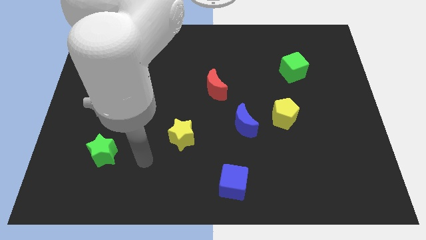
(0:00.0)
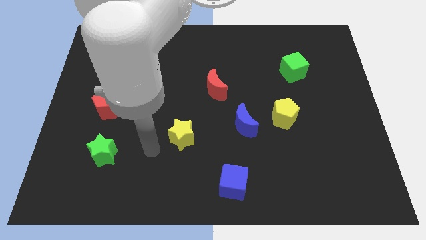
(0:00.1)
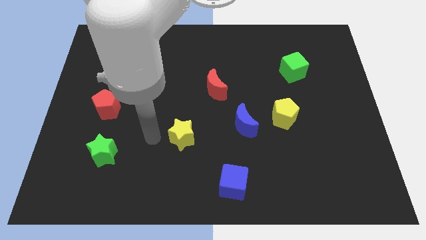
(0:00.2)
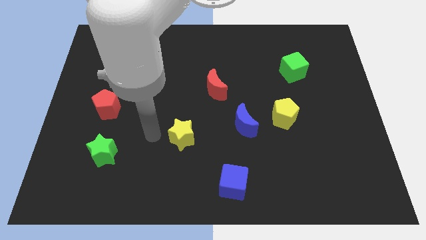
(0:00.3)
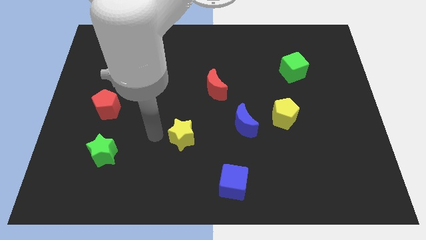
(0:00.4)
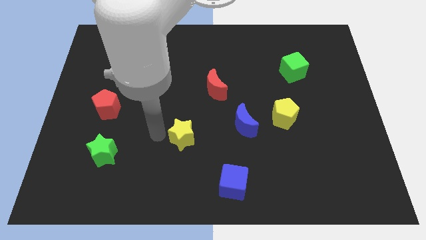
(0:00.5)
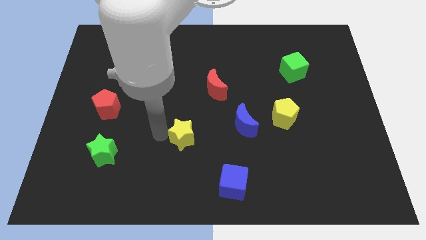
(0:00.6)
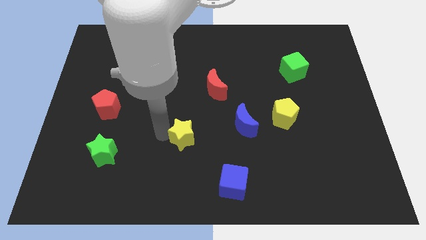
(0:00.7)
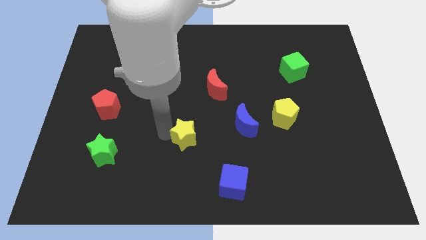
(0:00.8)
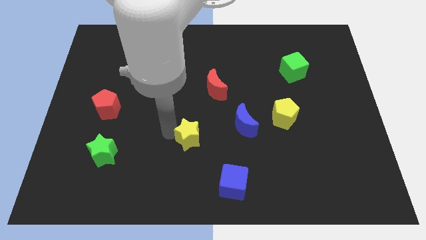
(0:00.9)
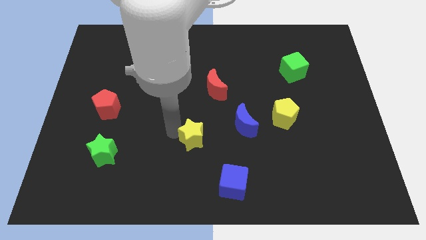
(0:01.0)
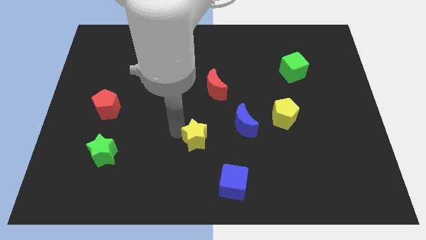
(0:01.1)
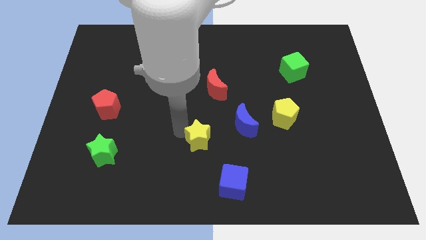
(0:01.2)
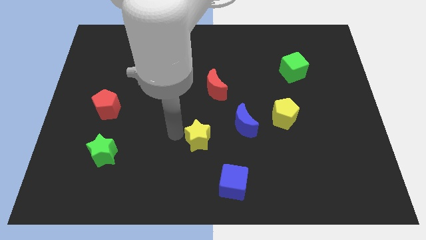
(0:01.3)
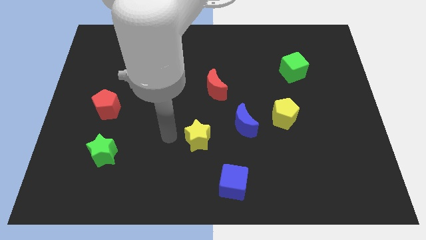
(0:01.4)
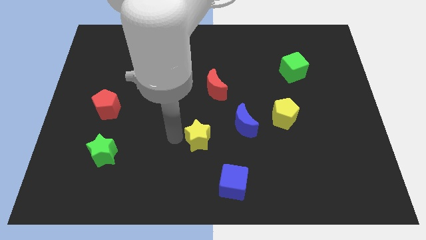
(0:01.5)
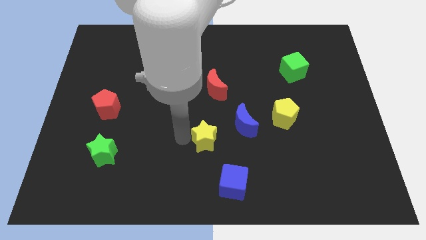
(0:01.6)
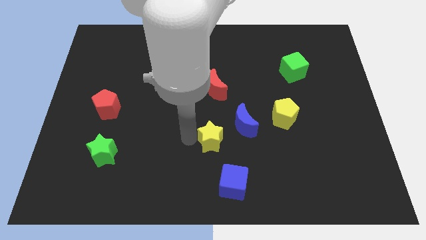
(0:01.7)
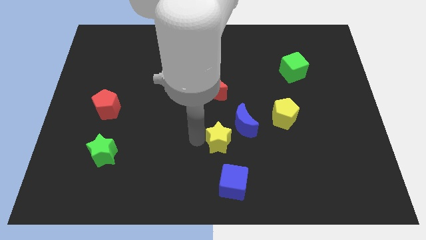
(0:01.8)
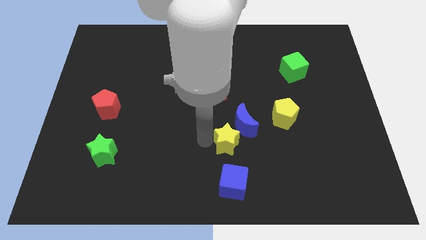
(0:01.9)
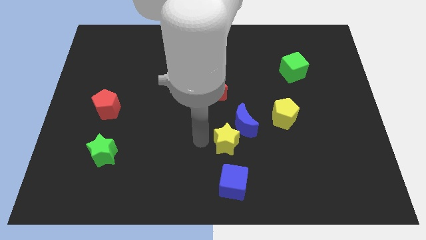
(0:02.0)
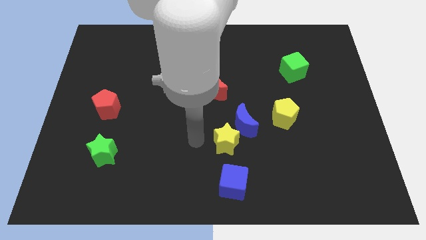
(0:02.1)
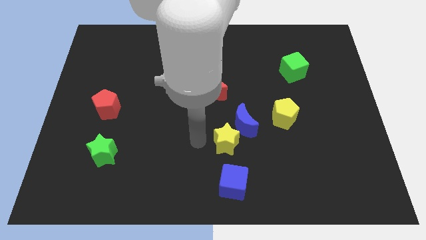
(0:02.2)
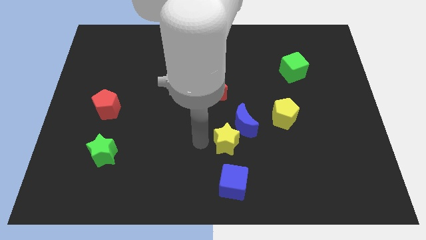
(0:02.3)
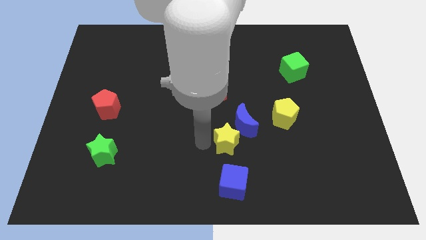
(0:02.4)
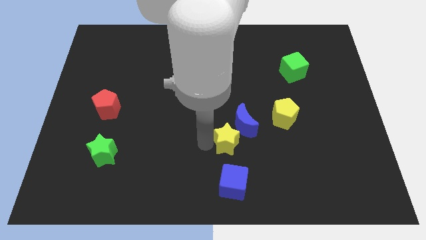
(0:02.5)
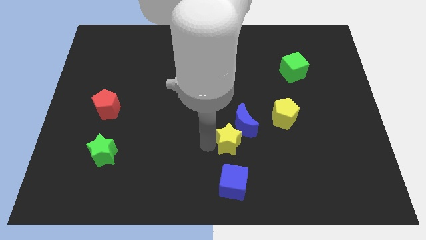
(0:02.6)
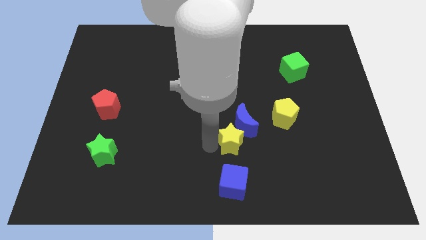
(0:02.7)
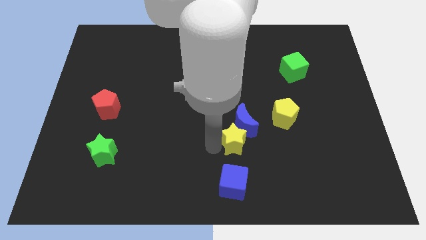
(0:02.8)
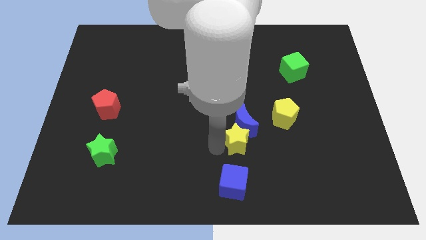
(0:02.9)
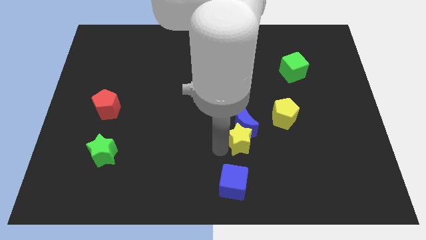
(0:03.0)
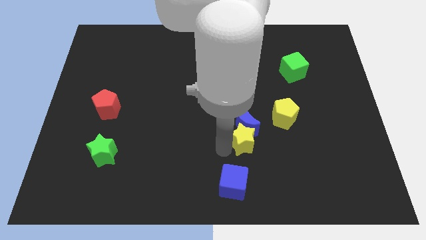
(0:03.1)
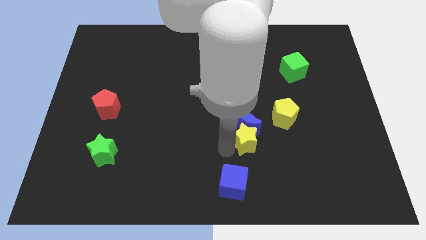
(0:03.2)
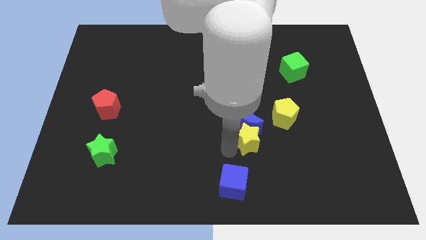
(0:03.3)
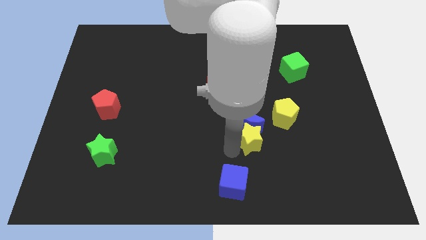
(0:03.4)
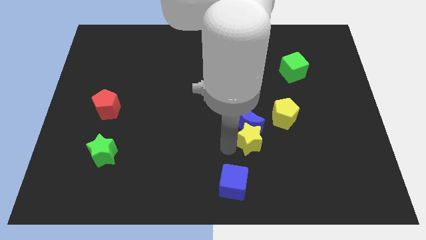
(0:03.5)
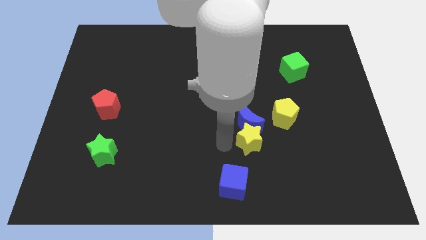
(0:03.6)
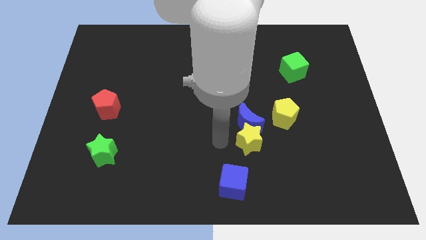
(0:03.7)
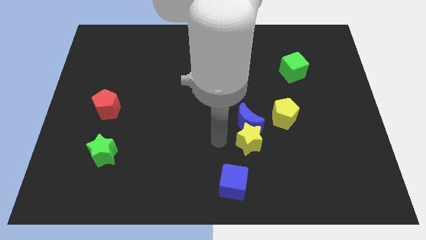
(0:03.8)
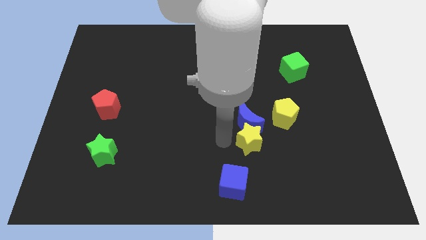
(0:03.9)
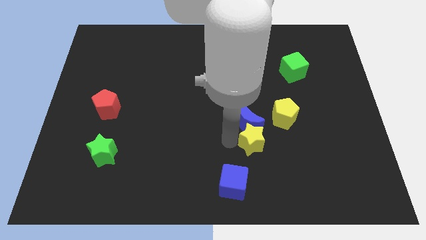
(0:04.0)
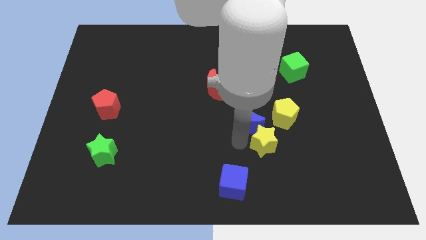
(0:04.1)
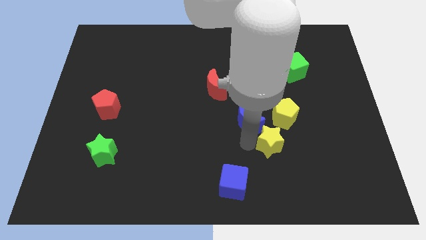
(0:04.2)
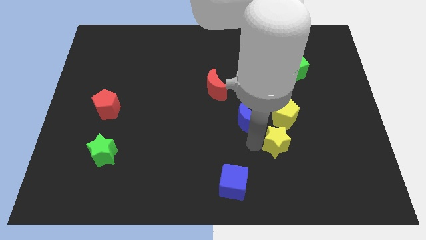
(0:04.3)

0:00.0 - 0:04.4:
move the yellow star to the right

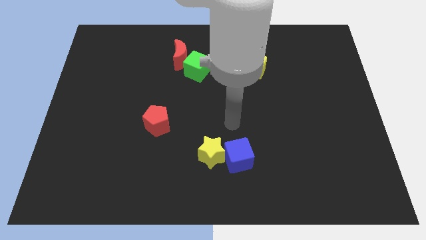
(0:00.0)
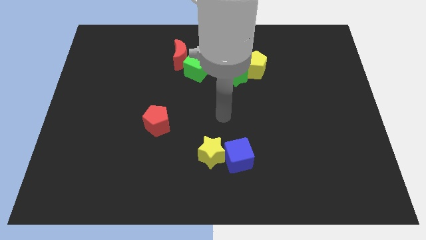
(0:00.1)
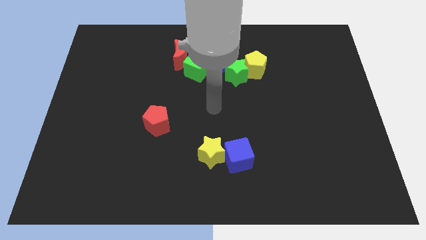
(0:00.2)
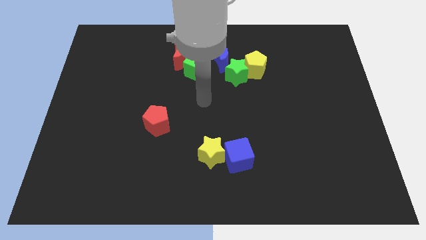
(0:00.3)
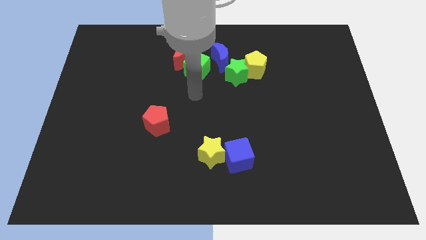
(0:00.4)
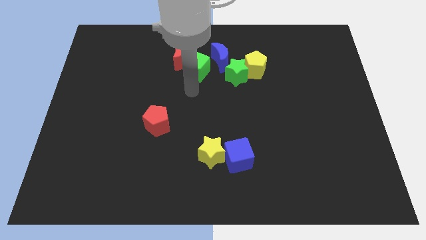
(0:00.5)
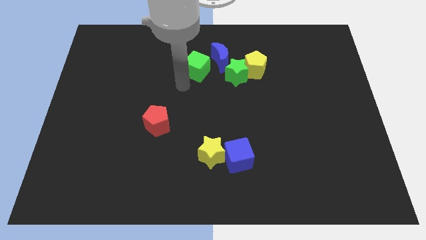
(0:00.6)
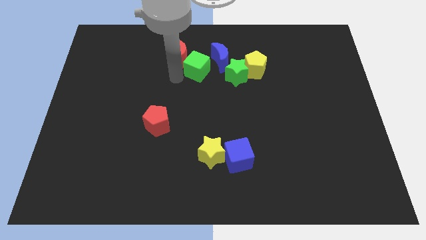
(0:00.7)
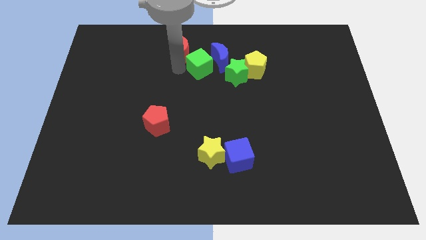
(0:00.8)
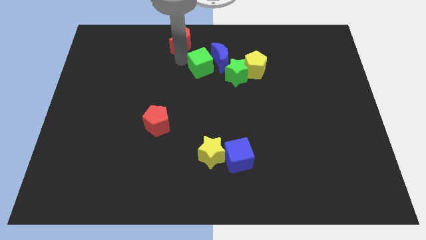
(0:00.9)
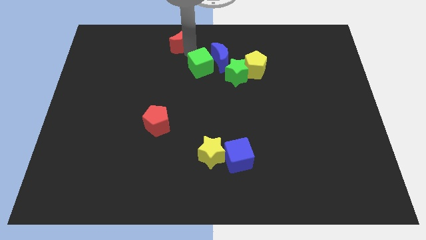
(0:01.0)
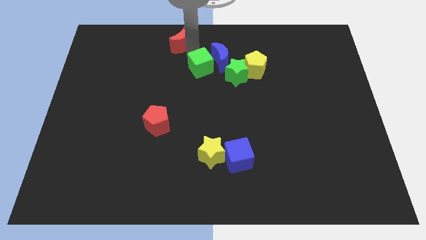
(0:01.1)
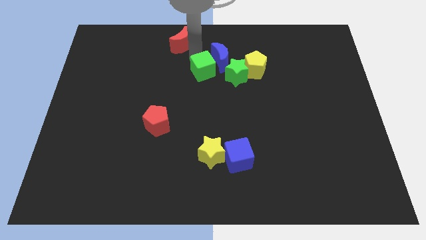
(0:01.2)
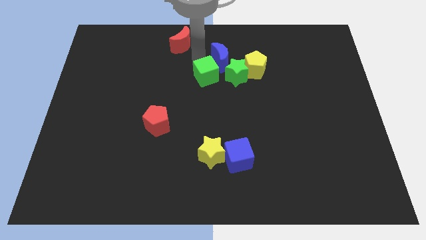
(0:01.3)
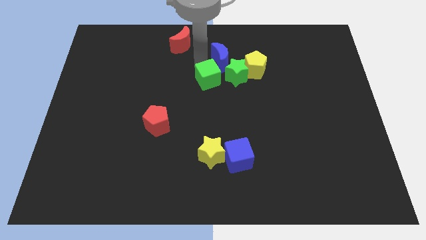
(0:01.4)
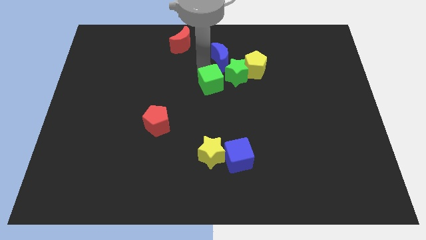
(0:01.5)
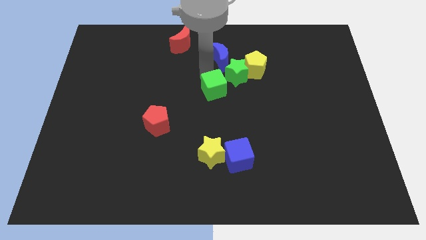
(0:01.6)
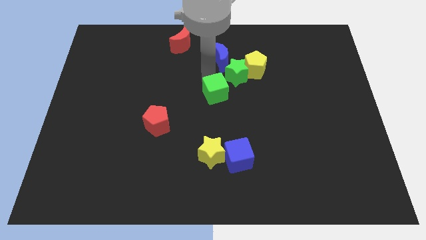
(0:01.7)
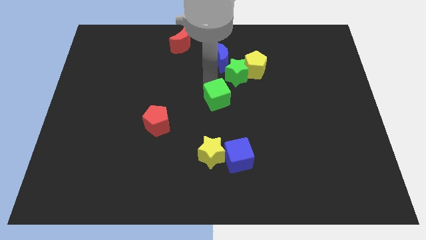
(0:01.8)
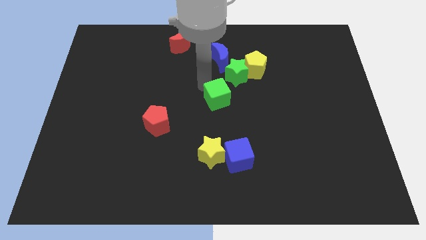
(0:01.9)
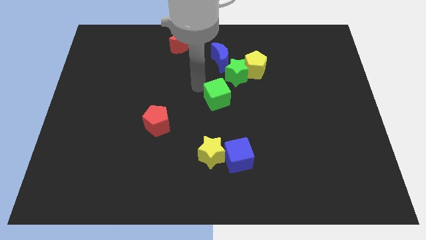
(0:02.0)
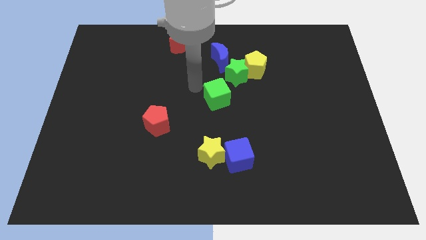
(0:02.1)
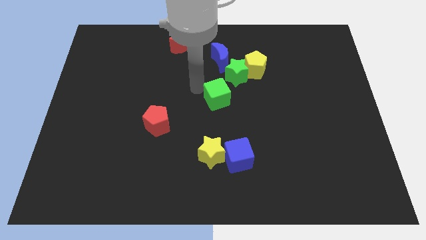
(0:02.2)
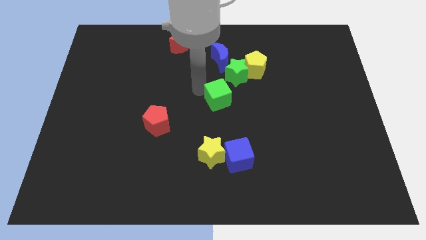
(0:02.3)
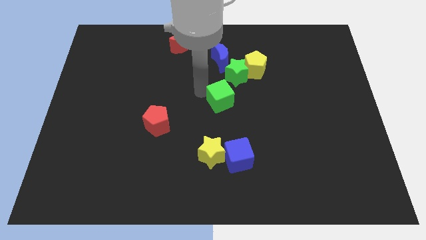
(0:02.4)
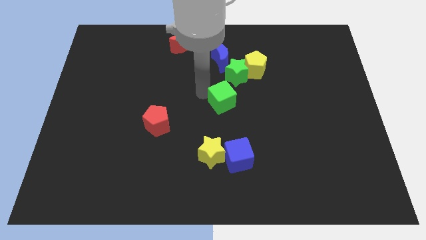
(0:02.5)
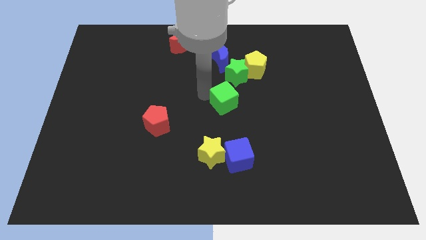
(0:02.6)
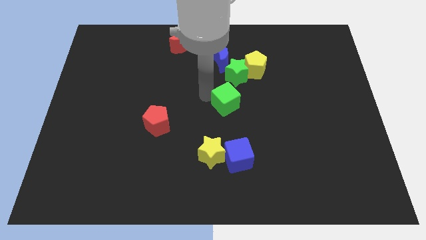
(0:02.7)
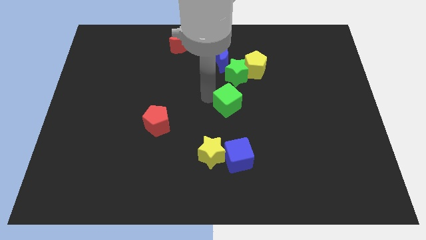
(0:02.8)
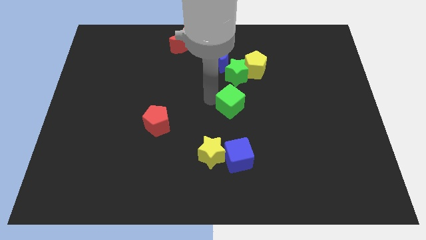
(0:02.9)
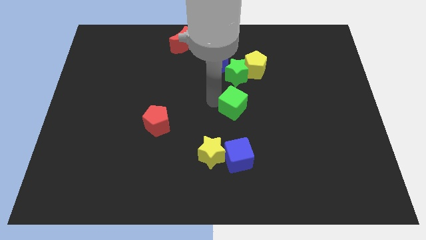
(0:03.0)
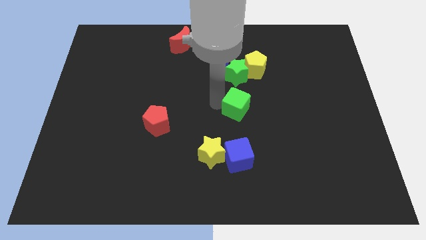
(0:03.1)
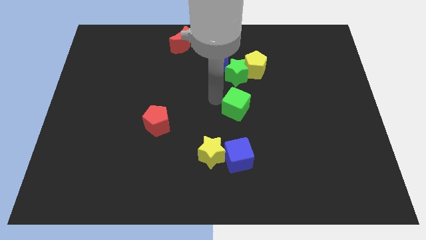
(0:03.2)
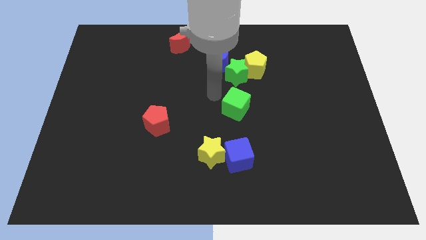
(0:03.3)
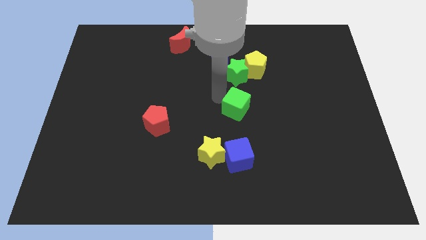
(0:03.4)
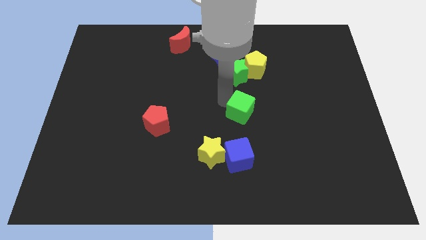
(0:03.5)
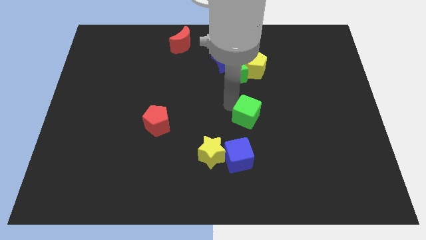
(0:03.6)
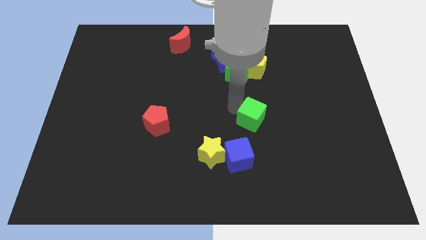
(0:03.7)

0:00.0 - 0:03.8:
push the green cube down and right
